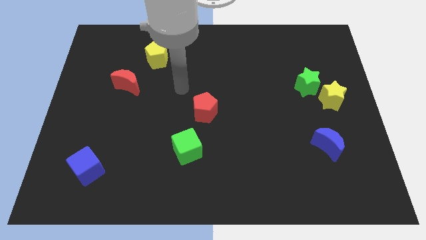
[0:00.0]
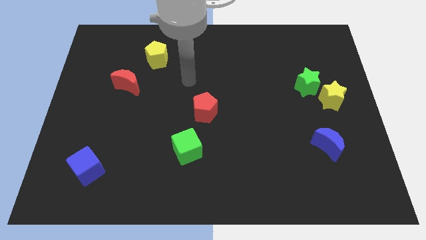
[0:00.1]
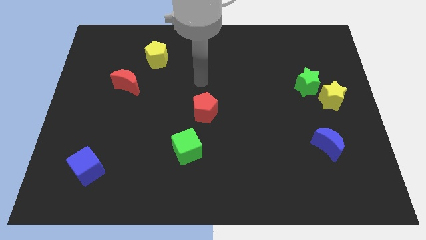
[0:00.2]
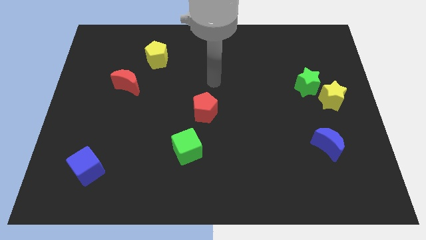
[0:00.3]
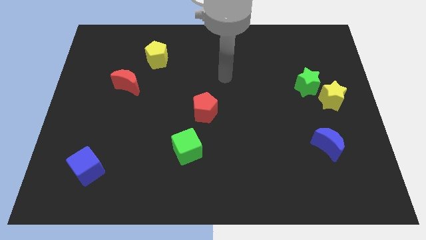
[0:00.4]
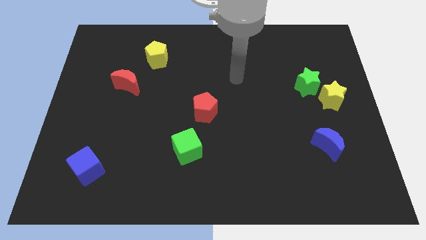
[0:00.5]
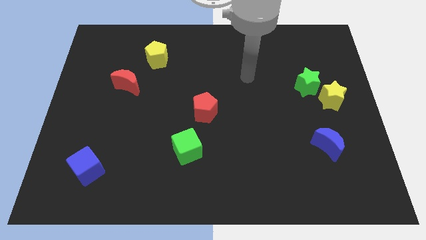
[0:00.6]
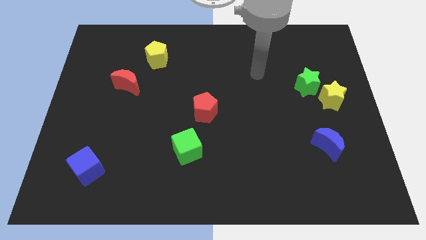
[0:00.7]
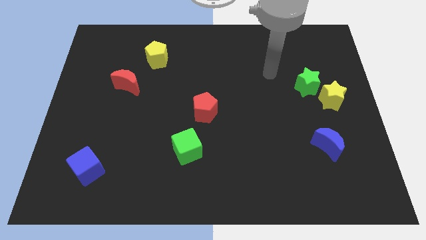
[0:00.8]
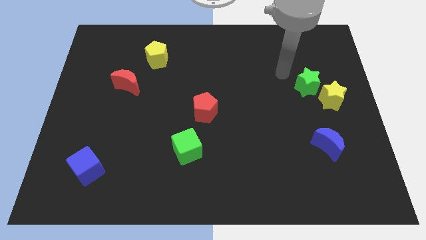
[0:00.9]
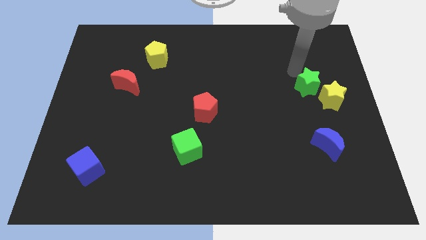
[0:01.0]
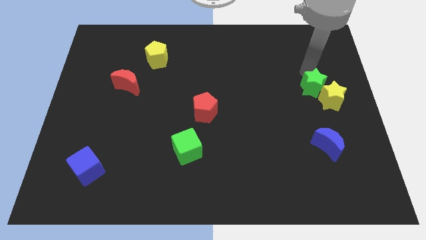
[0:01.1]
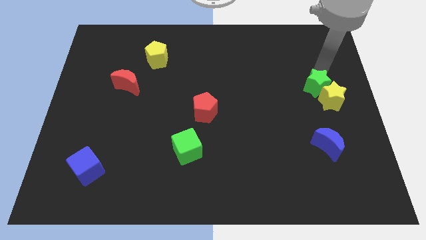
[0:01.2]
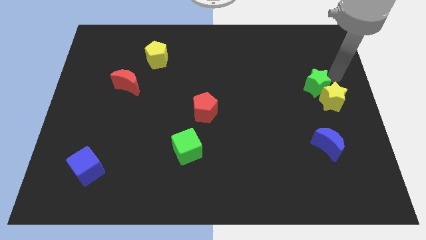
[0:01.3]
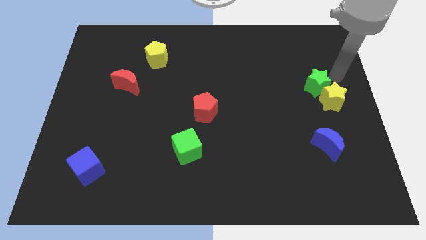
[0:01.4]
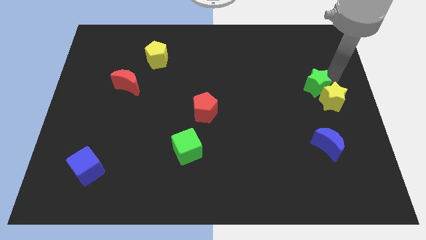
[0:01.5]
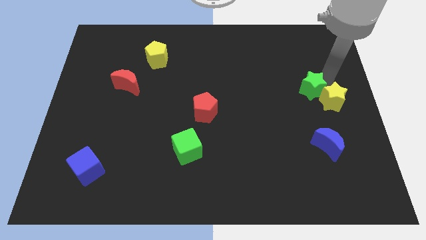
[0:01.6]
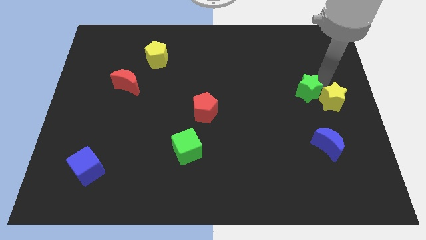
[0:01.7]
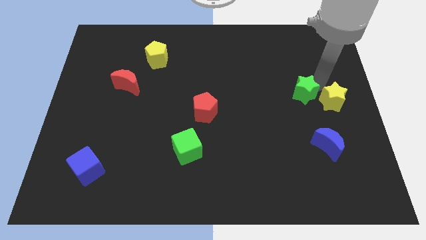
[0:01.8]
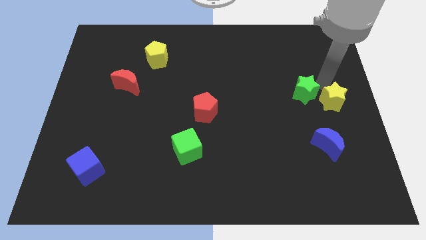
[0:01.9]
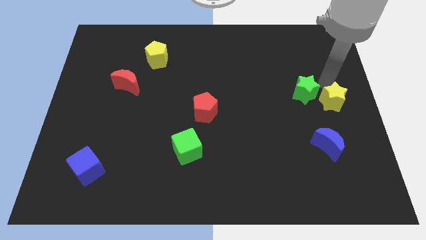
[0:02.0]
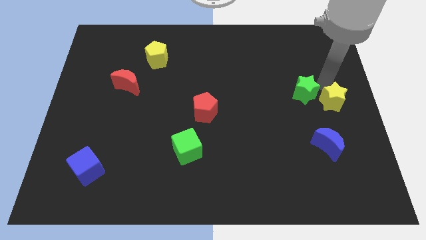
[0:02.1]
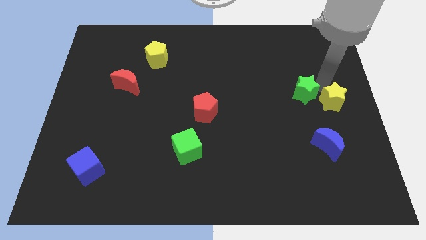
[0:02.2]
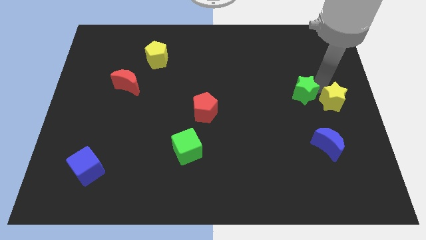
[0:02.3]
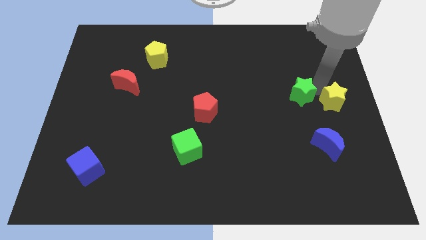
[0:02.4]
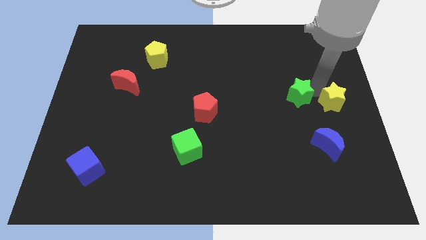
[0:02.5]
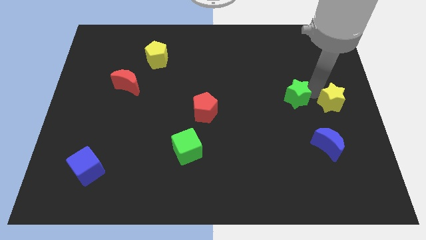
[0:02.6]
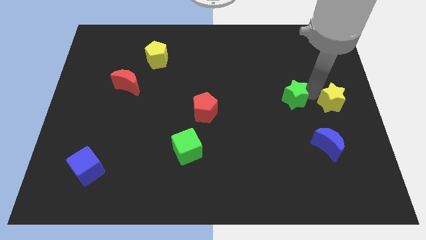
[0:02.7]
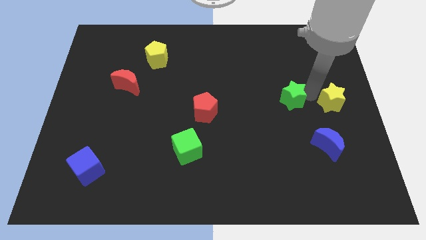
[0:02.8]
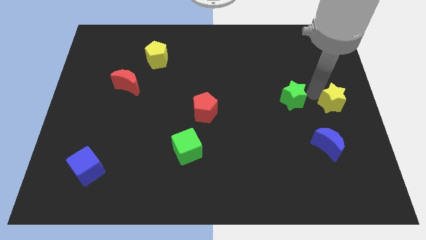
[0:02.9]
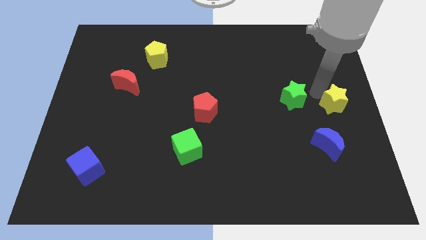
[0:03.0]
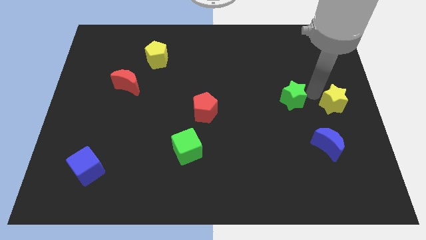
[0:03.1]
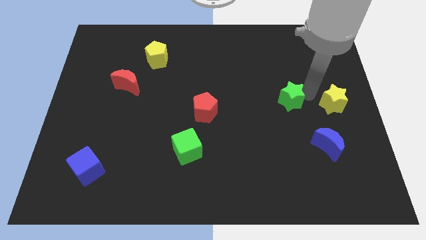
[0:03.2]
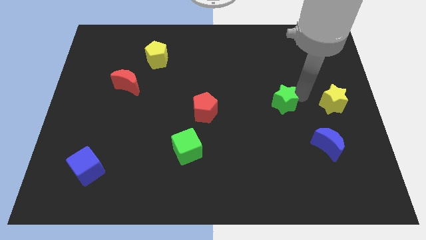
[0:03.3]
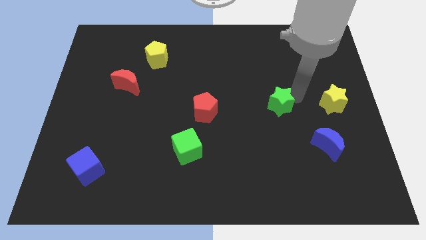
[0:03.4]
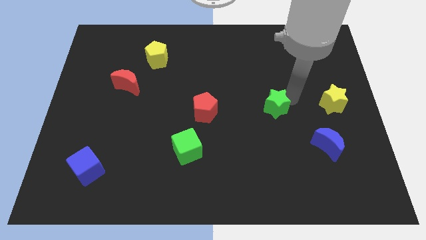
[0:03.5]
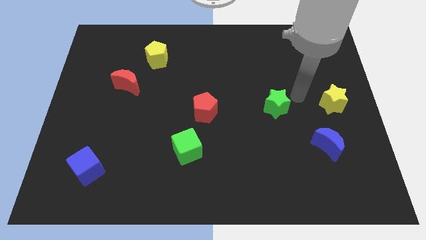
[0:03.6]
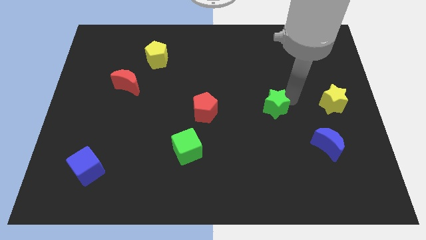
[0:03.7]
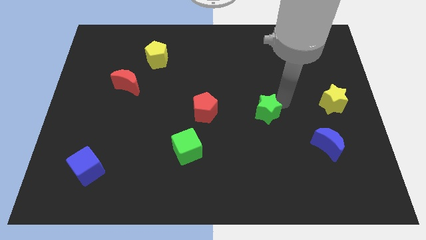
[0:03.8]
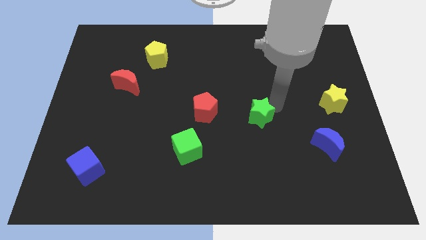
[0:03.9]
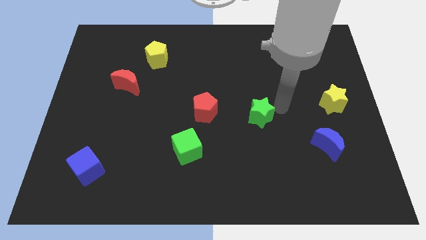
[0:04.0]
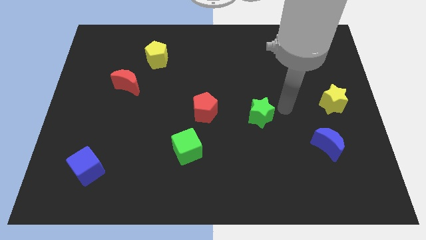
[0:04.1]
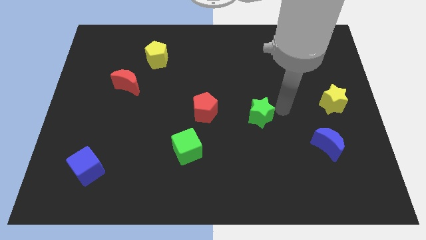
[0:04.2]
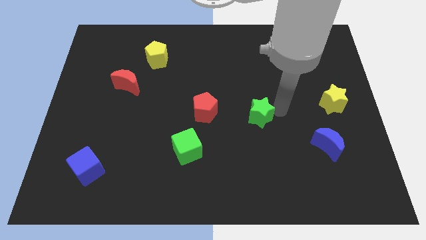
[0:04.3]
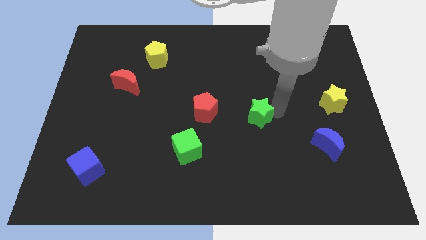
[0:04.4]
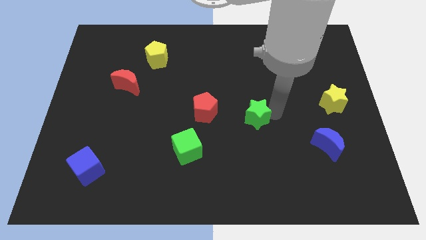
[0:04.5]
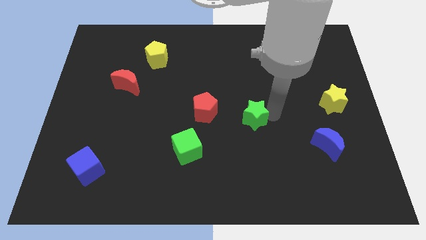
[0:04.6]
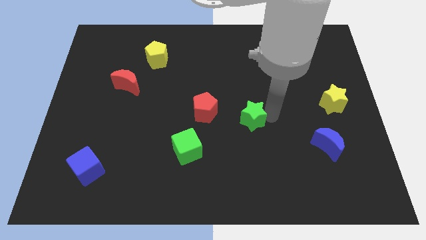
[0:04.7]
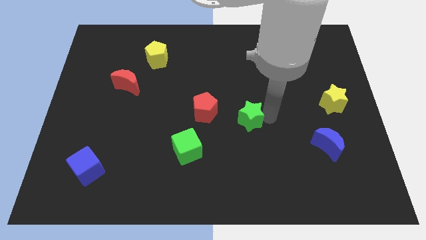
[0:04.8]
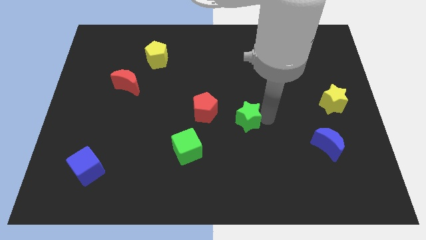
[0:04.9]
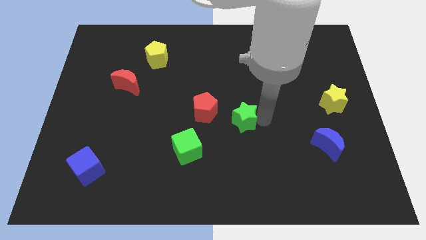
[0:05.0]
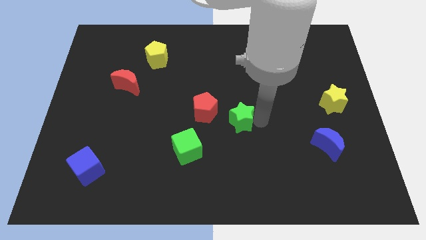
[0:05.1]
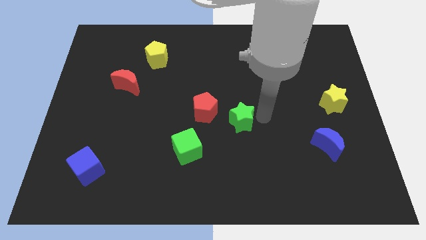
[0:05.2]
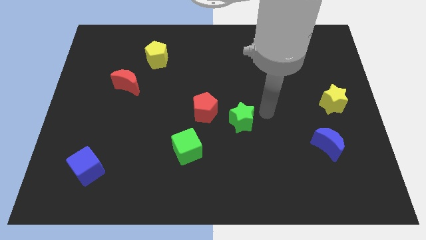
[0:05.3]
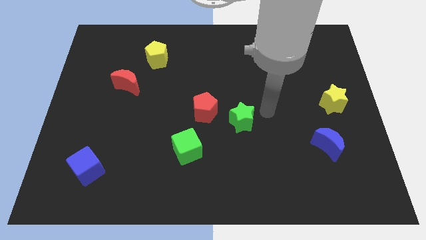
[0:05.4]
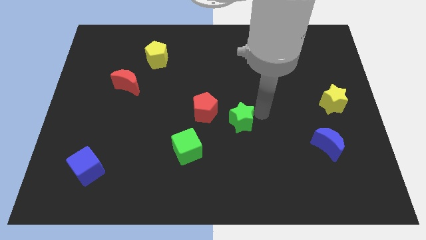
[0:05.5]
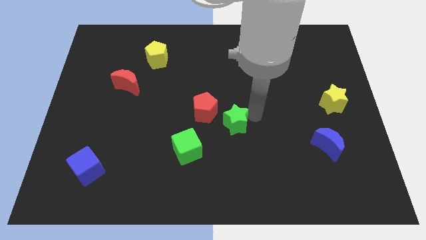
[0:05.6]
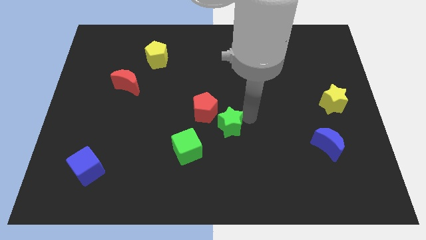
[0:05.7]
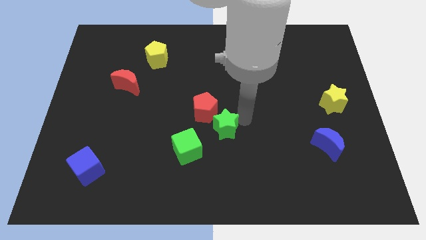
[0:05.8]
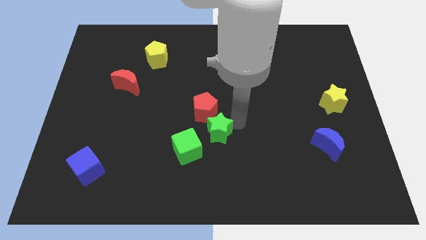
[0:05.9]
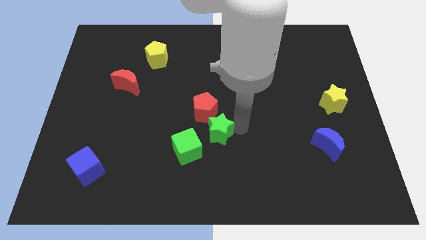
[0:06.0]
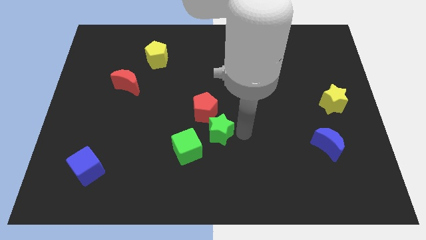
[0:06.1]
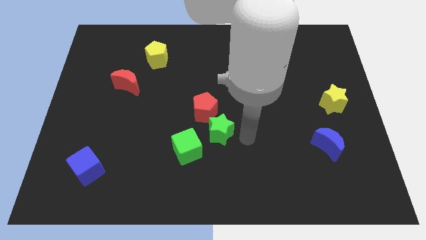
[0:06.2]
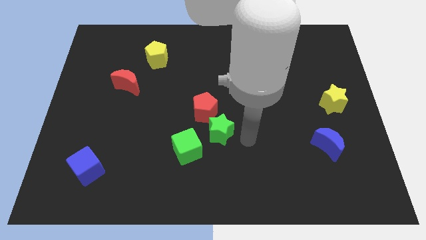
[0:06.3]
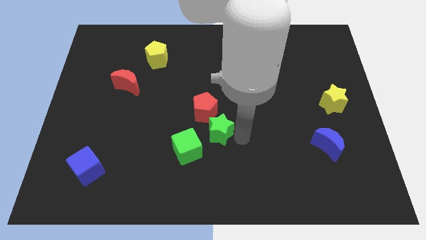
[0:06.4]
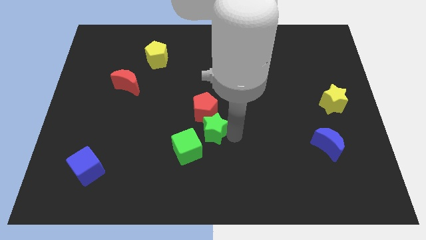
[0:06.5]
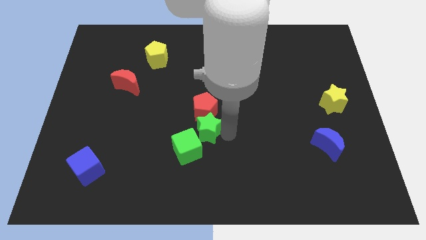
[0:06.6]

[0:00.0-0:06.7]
move the green star to the bottom left of the red pentagon
